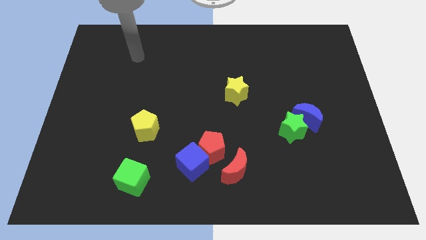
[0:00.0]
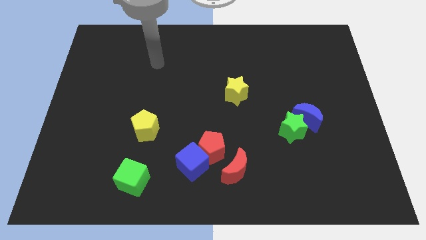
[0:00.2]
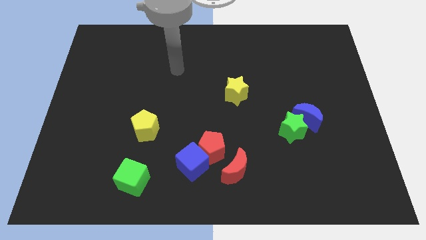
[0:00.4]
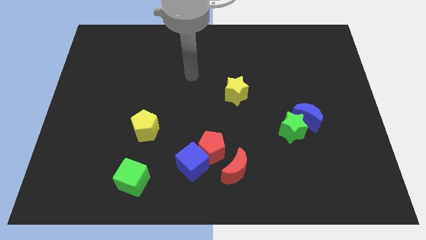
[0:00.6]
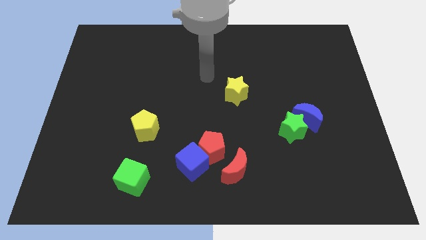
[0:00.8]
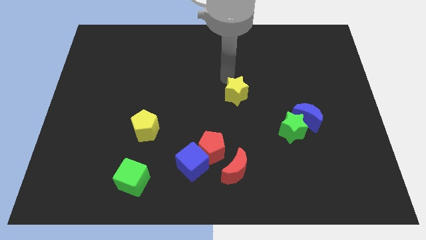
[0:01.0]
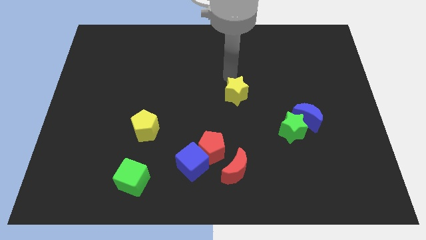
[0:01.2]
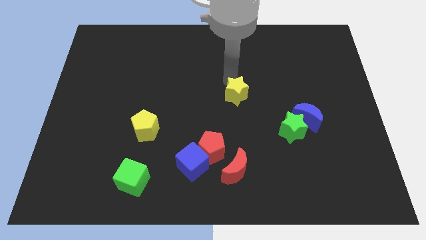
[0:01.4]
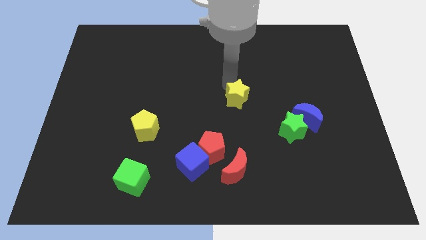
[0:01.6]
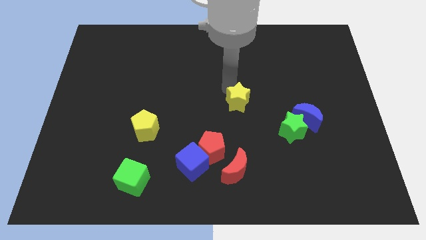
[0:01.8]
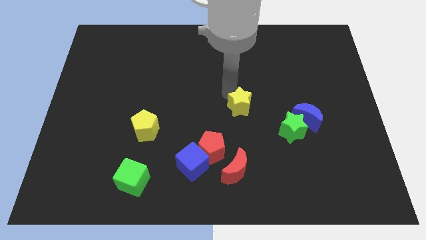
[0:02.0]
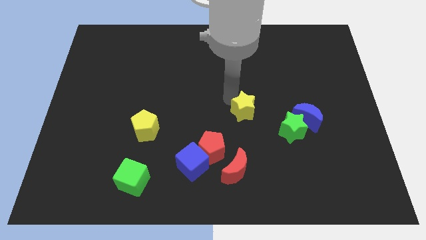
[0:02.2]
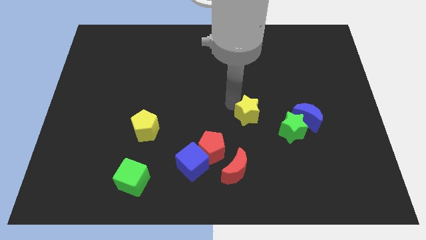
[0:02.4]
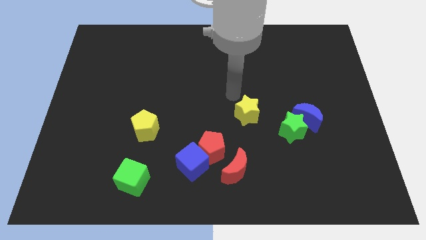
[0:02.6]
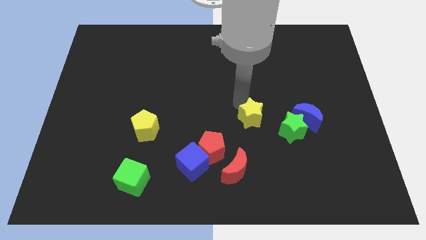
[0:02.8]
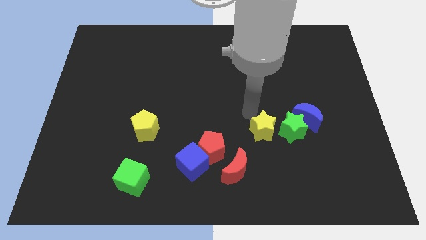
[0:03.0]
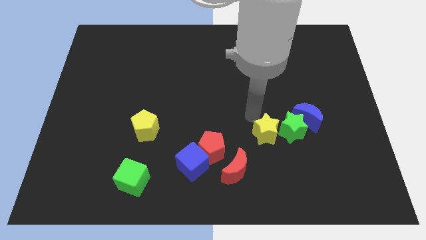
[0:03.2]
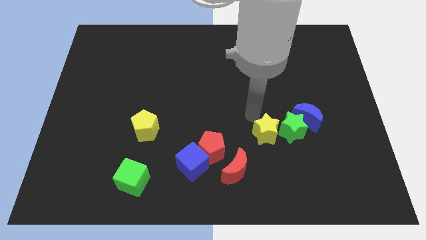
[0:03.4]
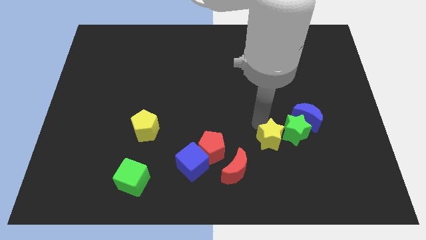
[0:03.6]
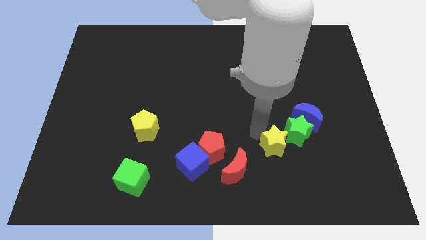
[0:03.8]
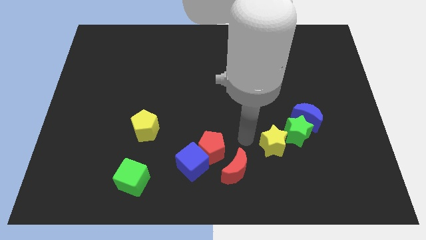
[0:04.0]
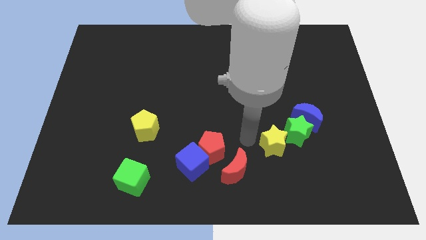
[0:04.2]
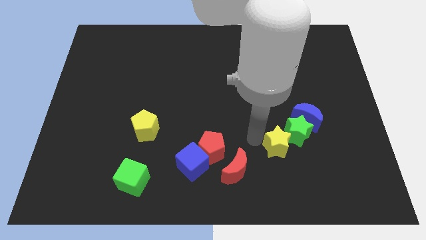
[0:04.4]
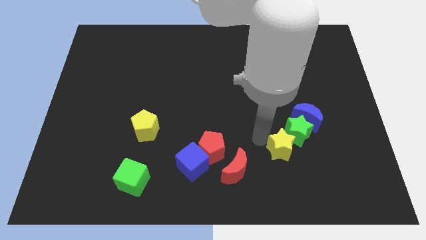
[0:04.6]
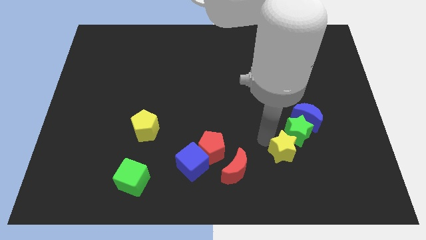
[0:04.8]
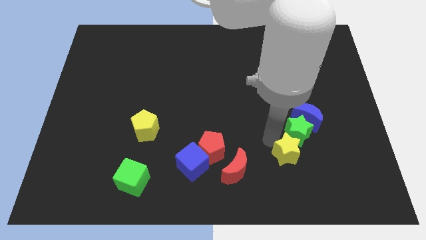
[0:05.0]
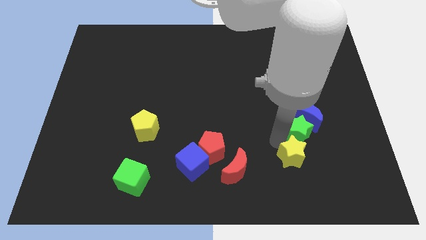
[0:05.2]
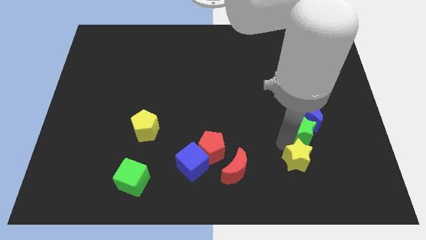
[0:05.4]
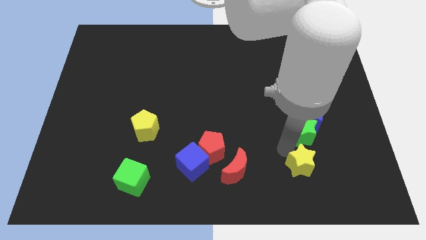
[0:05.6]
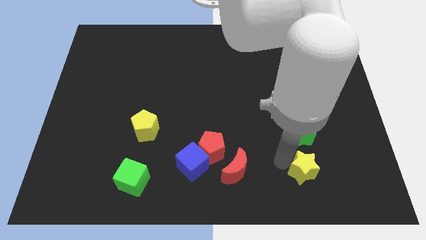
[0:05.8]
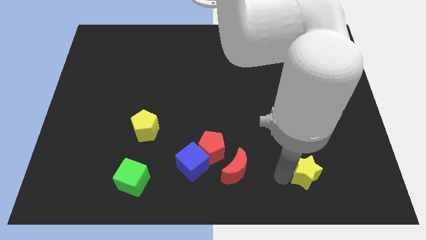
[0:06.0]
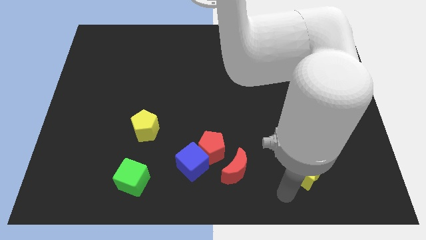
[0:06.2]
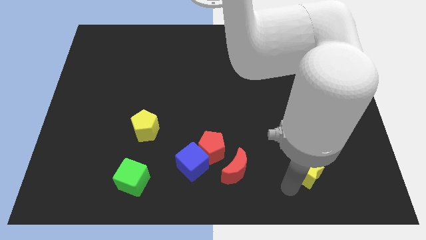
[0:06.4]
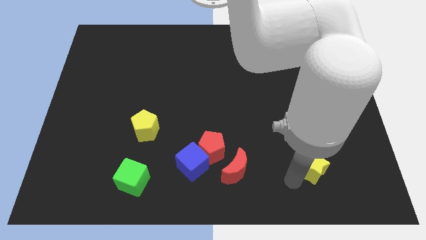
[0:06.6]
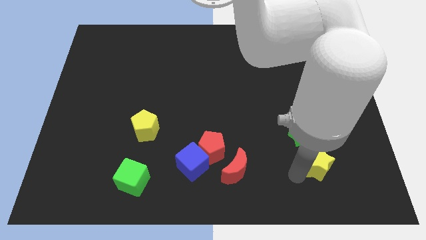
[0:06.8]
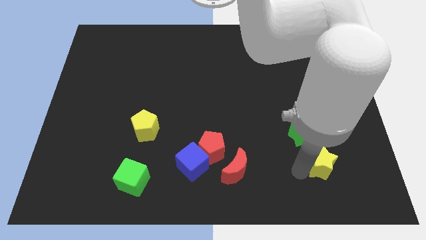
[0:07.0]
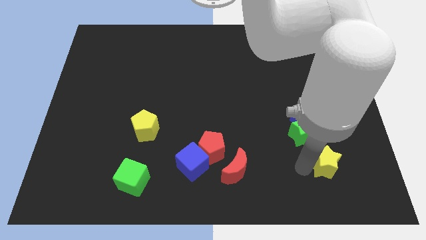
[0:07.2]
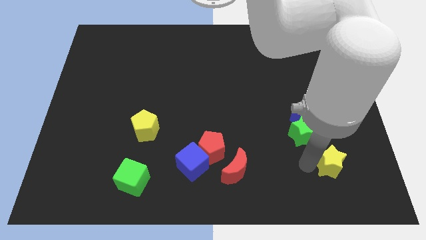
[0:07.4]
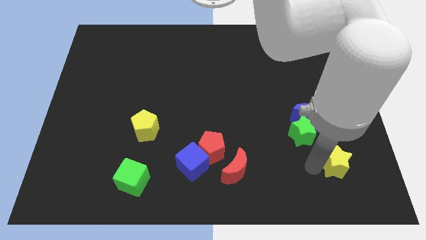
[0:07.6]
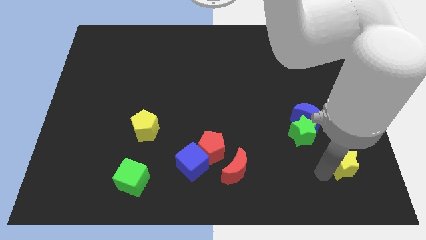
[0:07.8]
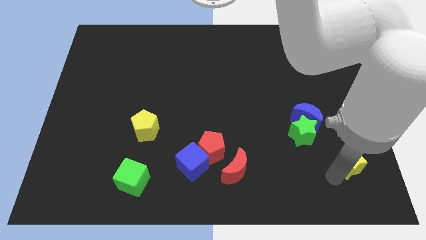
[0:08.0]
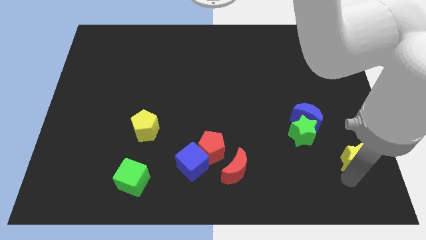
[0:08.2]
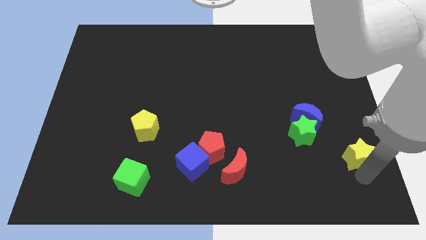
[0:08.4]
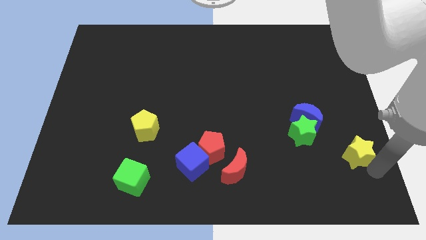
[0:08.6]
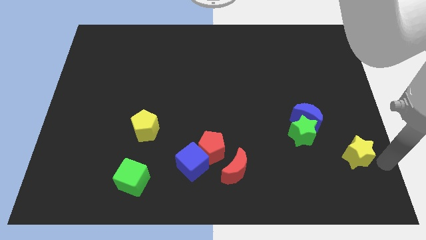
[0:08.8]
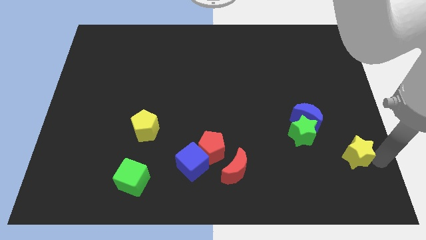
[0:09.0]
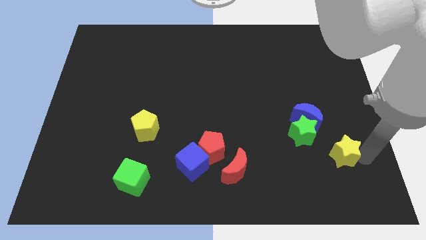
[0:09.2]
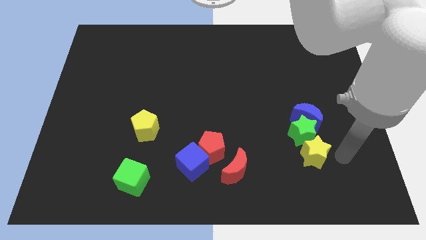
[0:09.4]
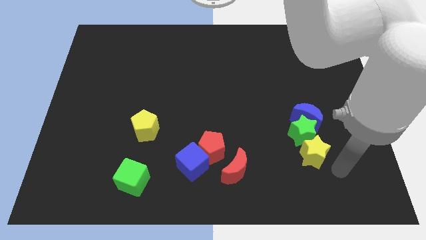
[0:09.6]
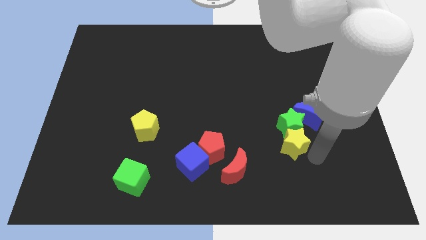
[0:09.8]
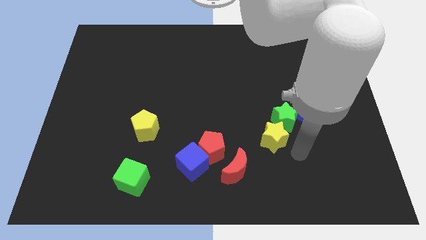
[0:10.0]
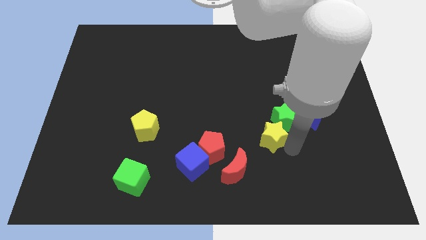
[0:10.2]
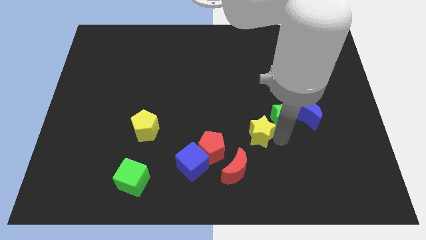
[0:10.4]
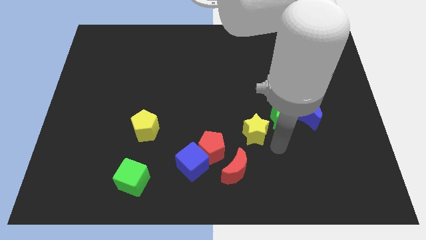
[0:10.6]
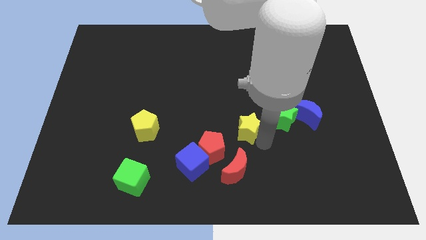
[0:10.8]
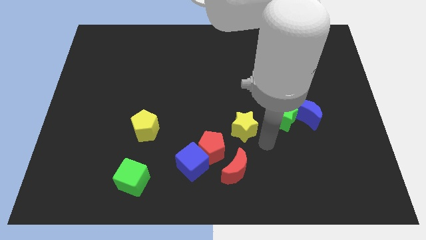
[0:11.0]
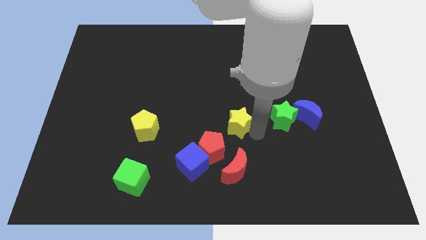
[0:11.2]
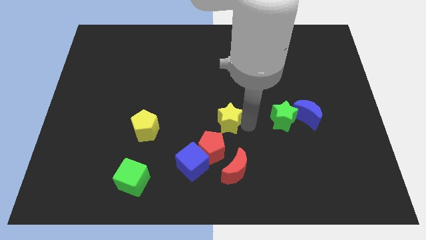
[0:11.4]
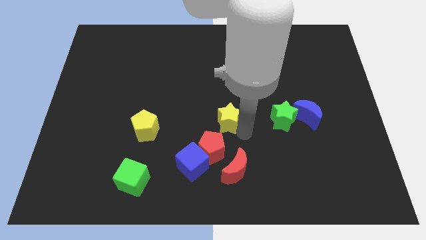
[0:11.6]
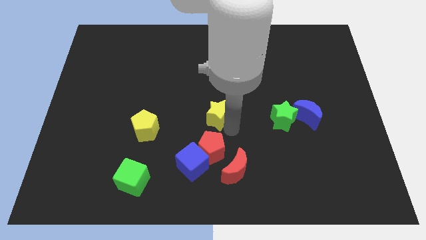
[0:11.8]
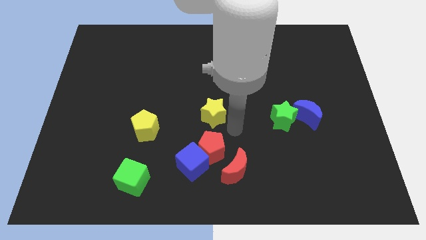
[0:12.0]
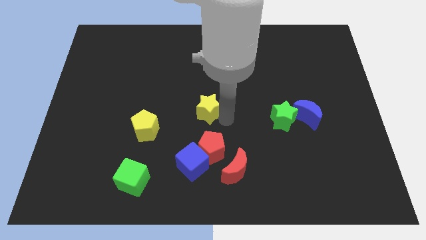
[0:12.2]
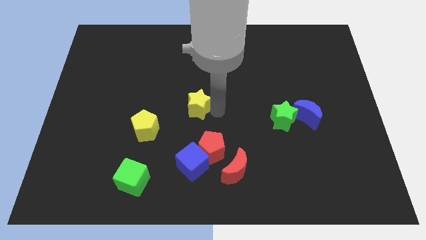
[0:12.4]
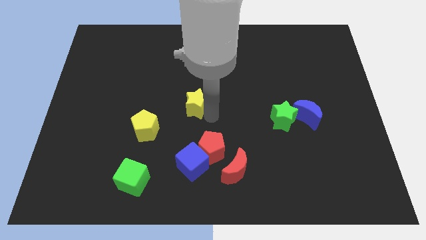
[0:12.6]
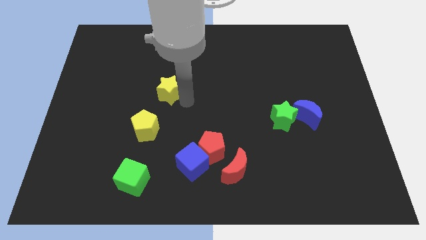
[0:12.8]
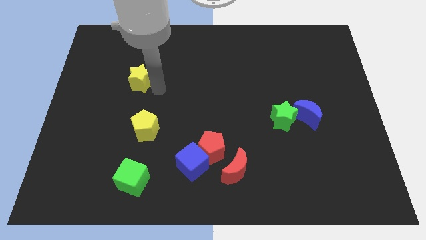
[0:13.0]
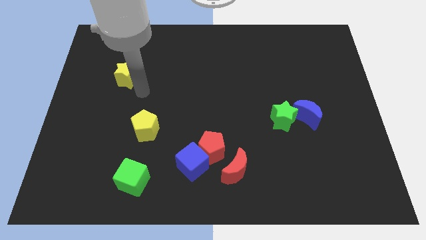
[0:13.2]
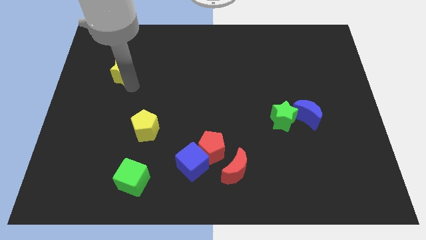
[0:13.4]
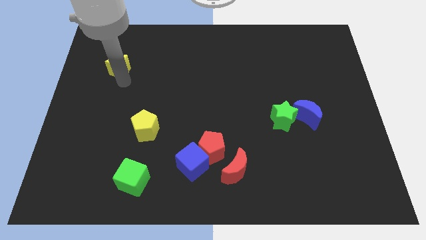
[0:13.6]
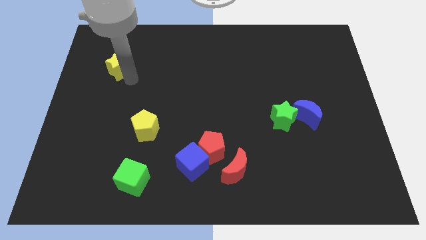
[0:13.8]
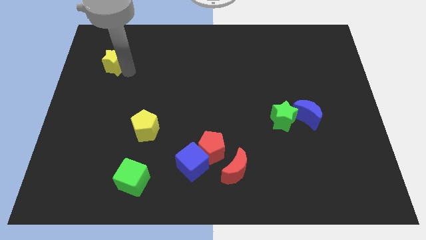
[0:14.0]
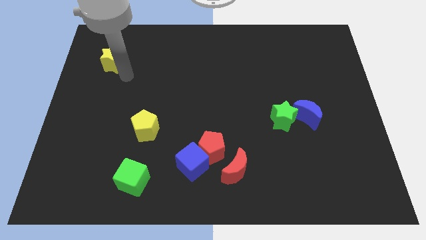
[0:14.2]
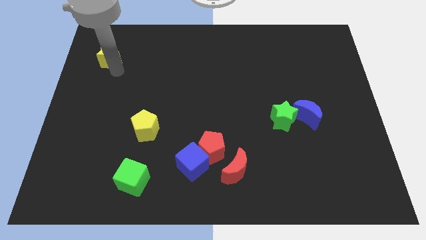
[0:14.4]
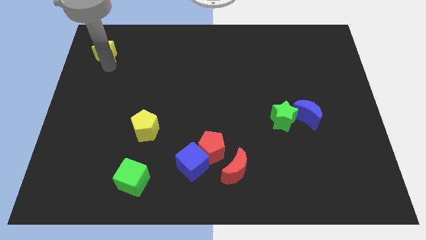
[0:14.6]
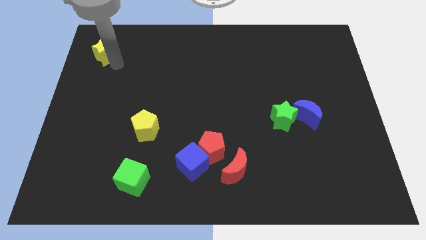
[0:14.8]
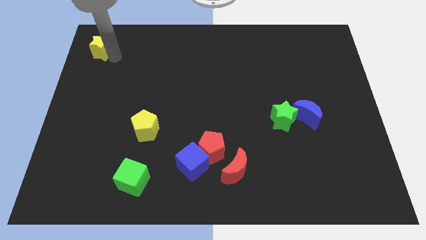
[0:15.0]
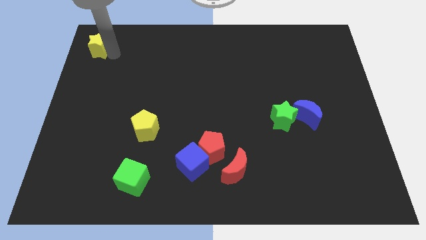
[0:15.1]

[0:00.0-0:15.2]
slide the yellow star to the upper left corner
